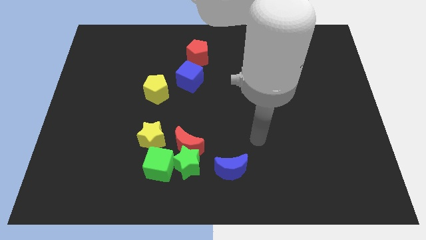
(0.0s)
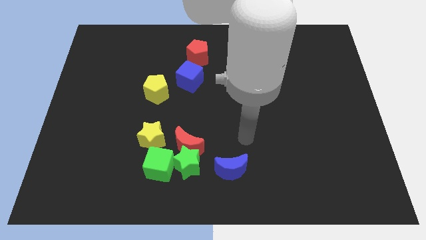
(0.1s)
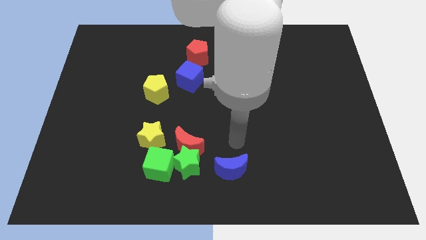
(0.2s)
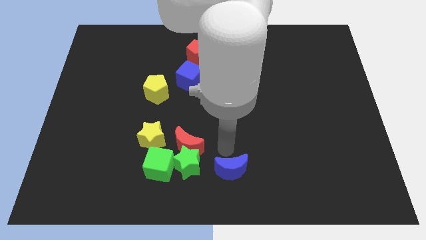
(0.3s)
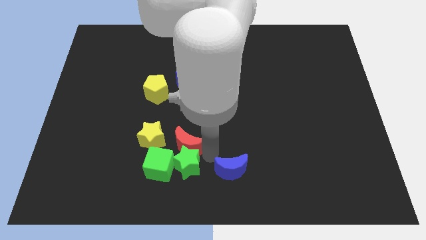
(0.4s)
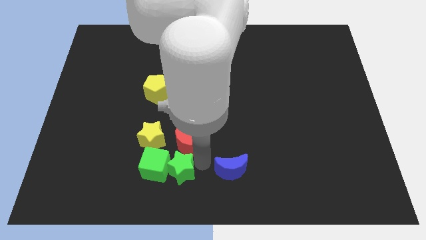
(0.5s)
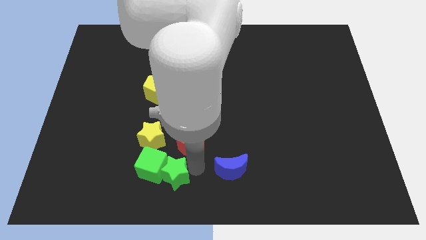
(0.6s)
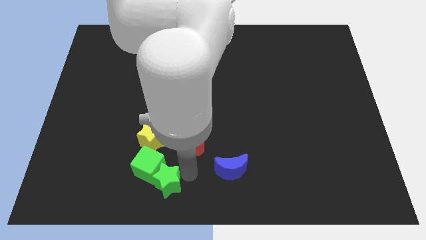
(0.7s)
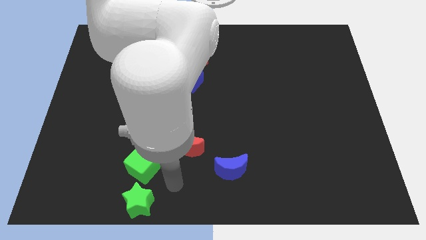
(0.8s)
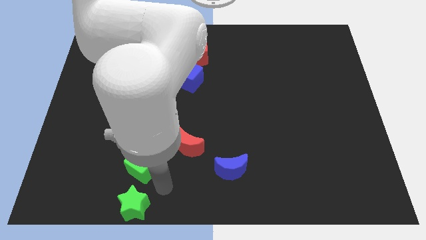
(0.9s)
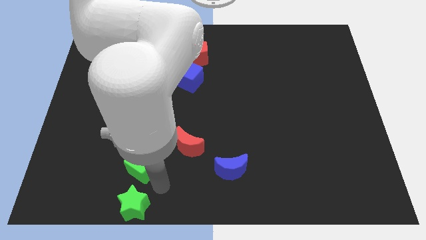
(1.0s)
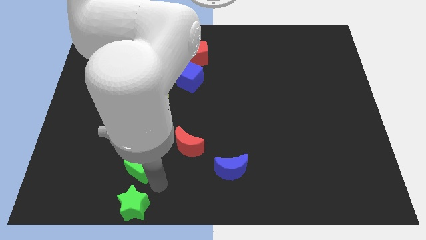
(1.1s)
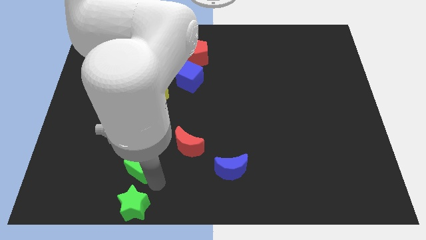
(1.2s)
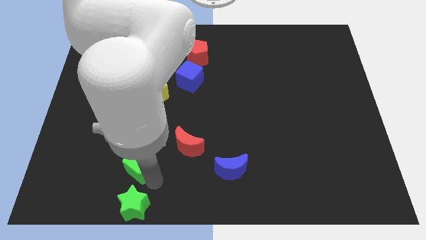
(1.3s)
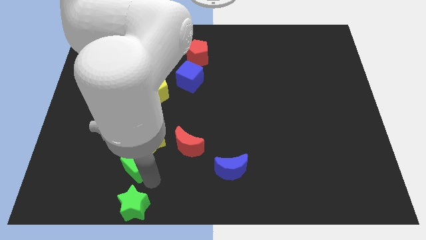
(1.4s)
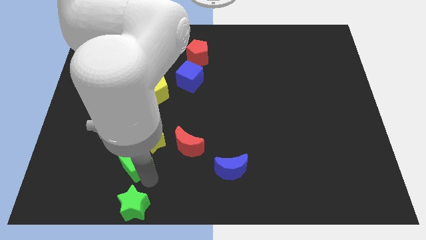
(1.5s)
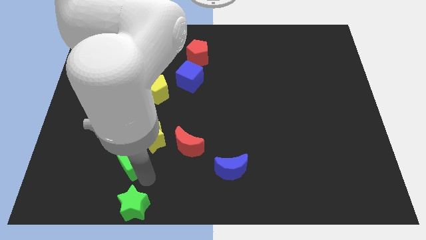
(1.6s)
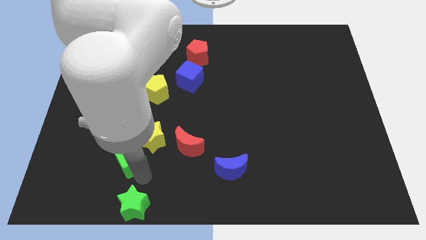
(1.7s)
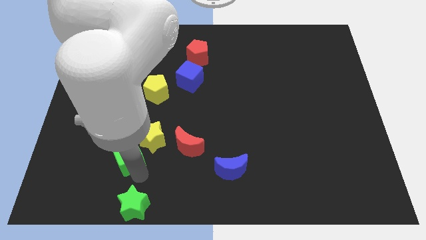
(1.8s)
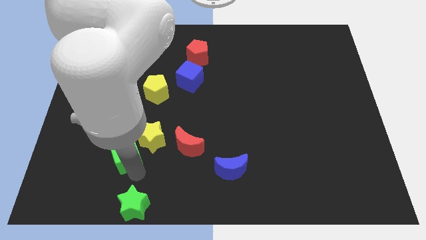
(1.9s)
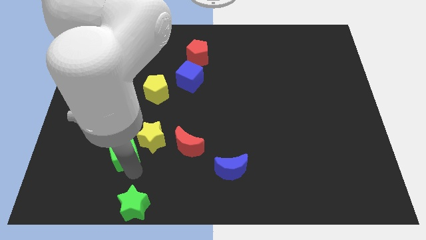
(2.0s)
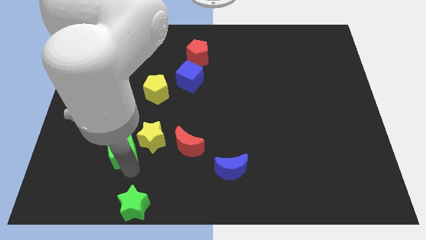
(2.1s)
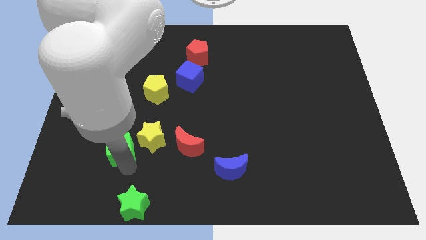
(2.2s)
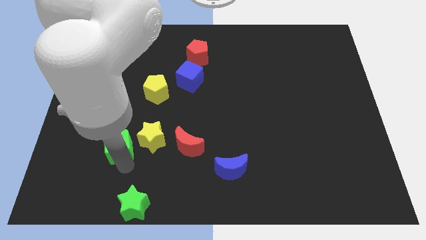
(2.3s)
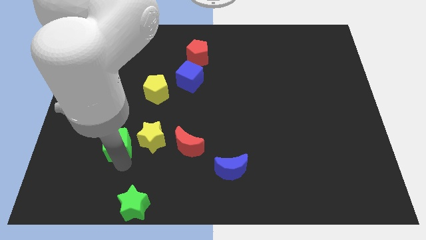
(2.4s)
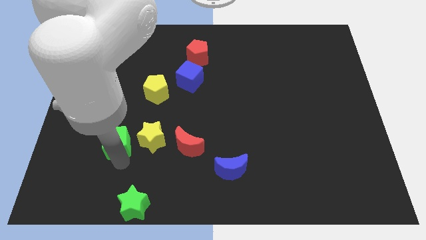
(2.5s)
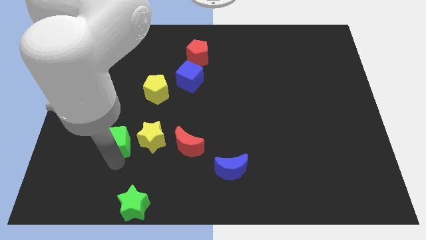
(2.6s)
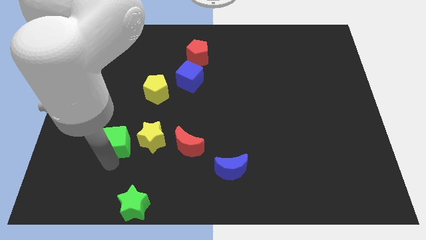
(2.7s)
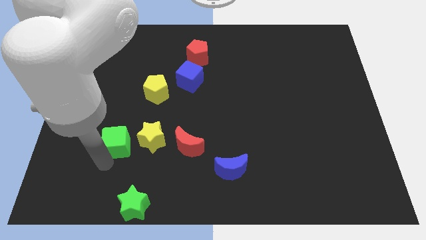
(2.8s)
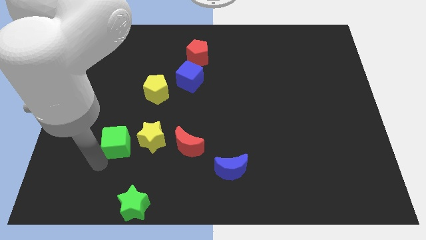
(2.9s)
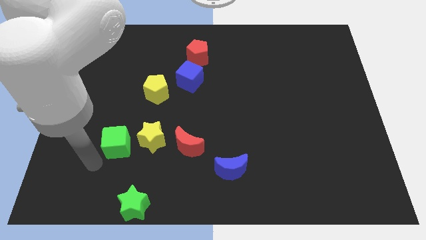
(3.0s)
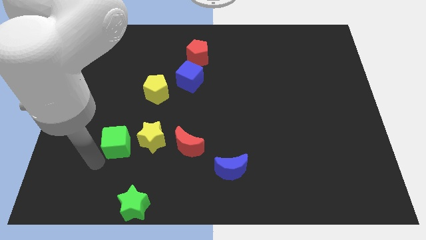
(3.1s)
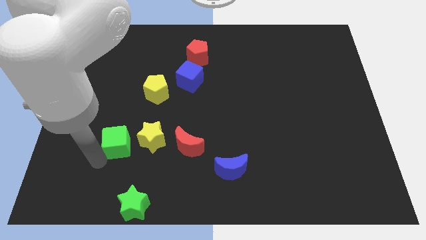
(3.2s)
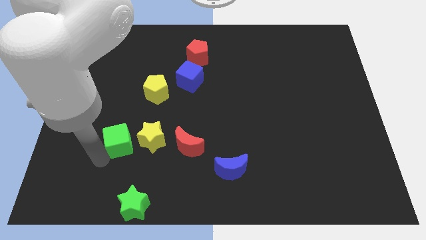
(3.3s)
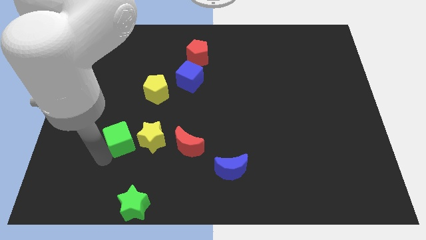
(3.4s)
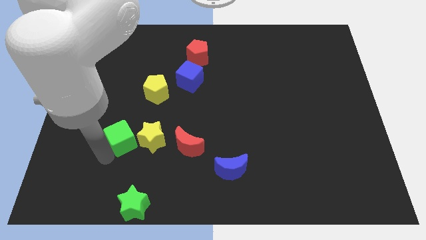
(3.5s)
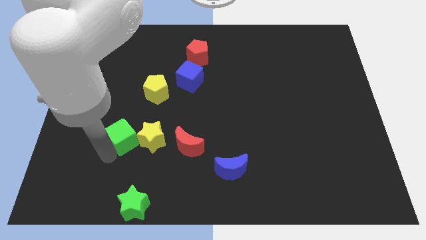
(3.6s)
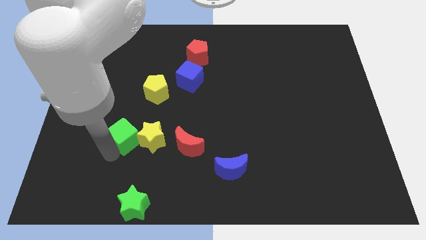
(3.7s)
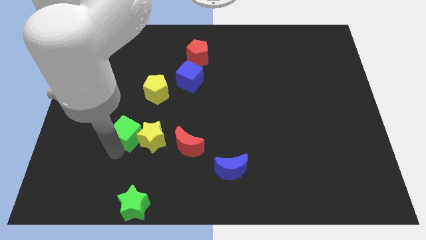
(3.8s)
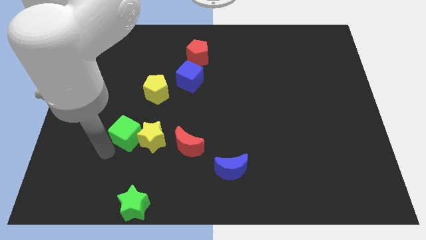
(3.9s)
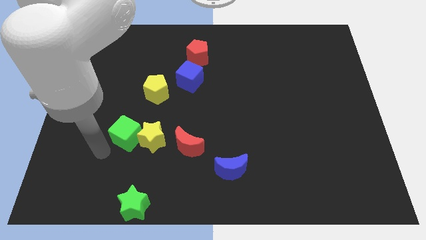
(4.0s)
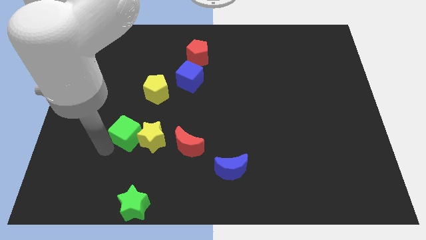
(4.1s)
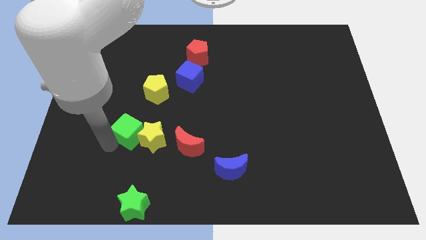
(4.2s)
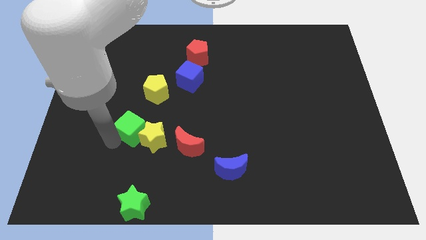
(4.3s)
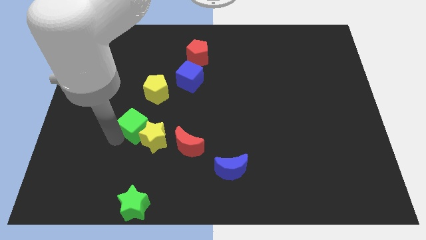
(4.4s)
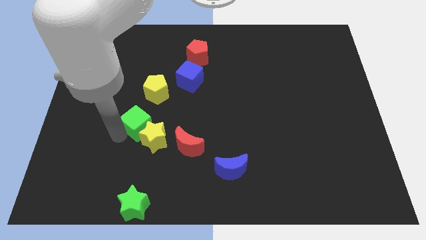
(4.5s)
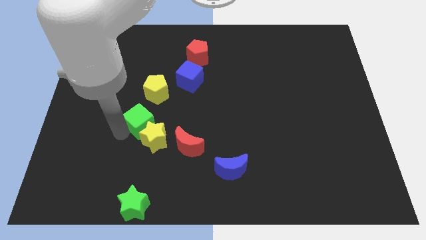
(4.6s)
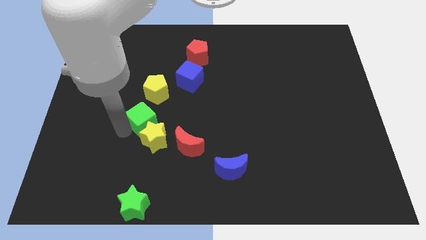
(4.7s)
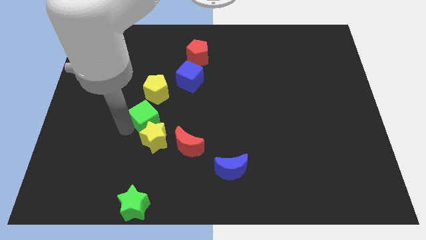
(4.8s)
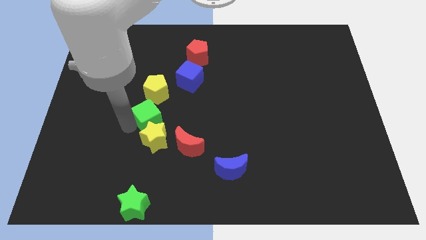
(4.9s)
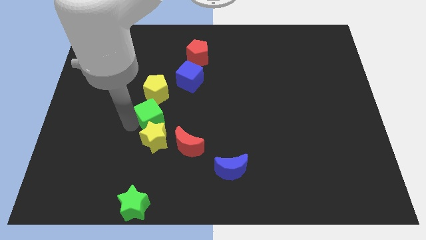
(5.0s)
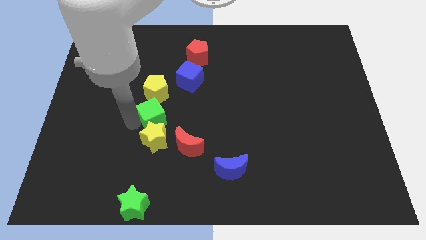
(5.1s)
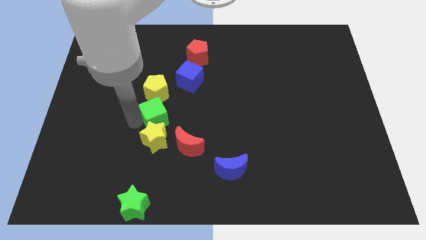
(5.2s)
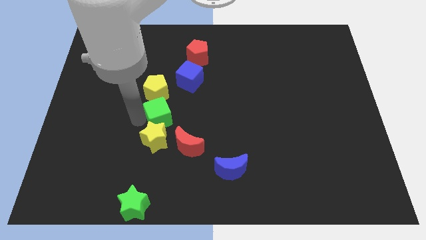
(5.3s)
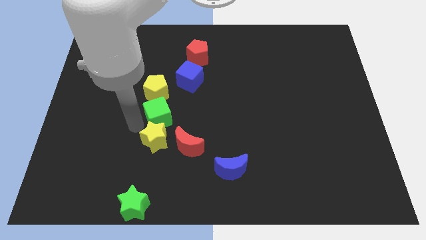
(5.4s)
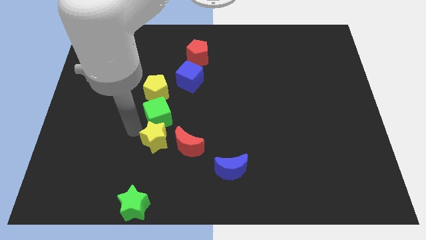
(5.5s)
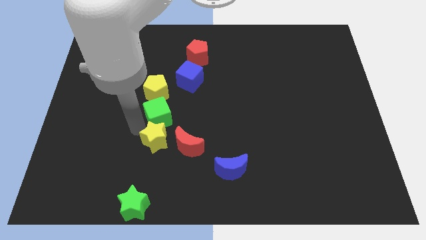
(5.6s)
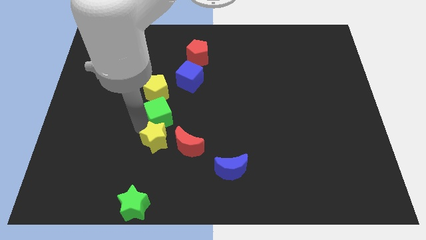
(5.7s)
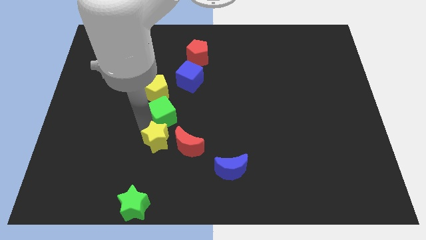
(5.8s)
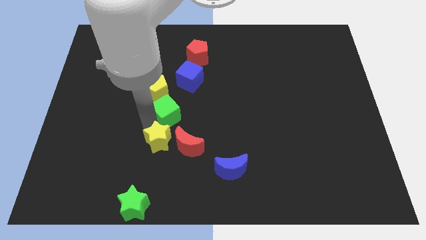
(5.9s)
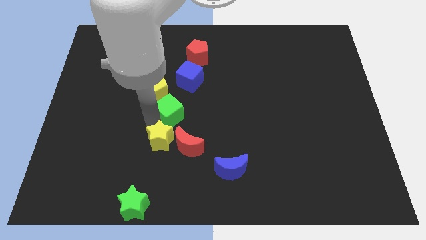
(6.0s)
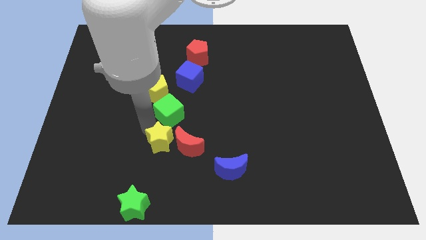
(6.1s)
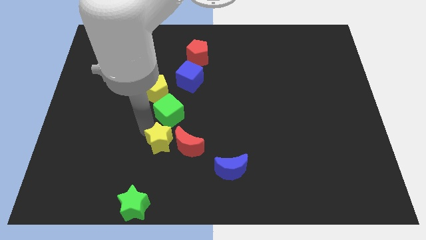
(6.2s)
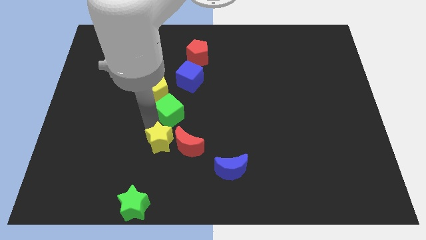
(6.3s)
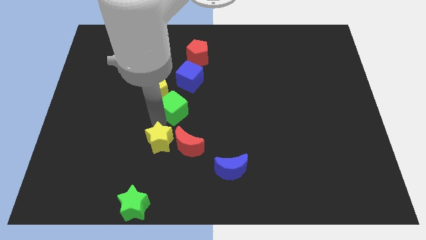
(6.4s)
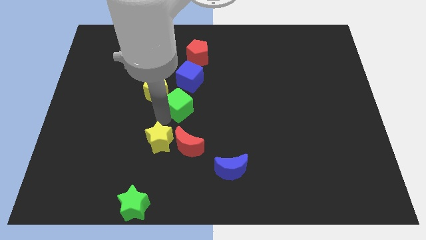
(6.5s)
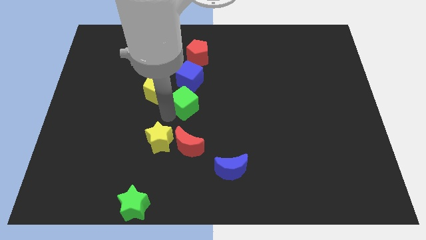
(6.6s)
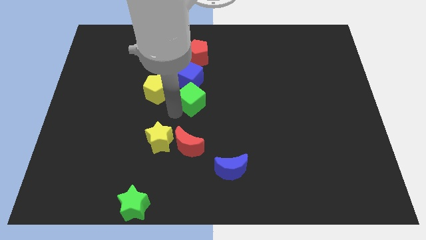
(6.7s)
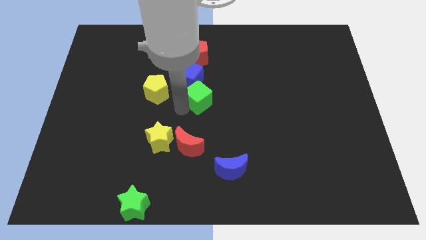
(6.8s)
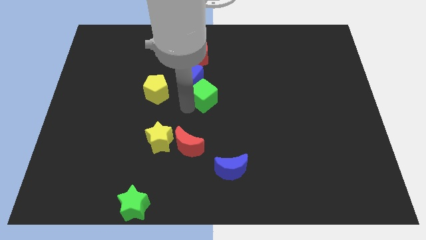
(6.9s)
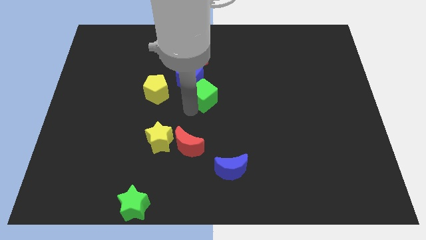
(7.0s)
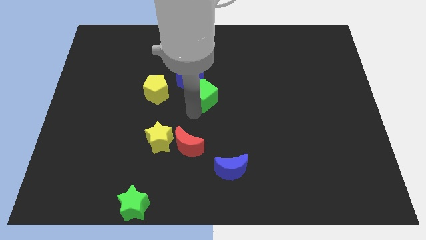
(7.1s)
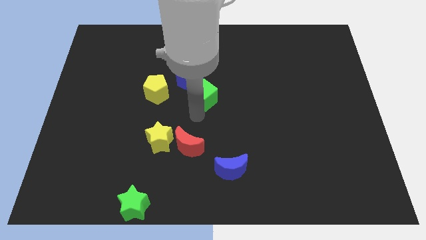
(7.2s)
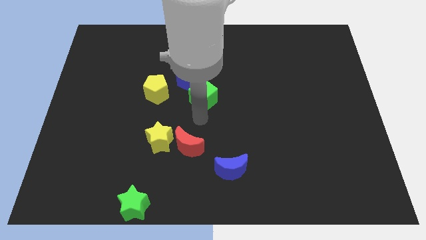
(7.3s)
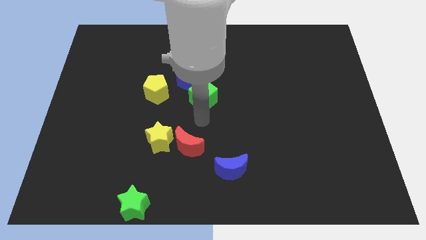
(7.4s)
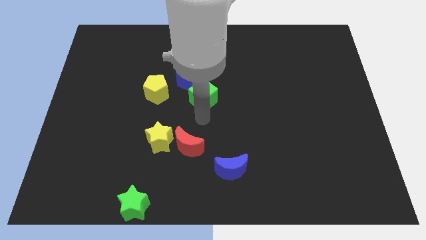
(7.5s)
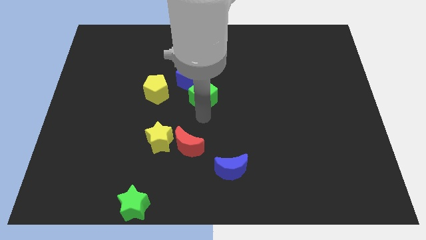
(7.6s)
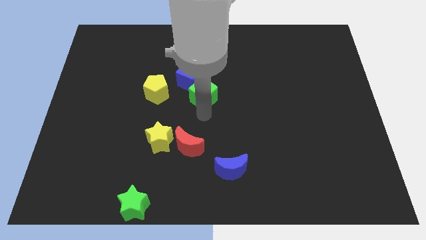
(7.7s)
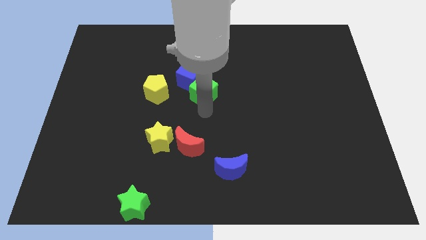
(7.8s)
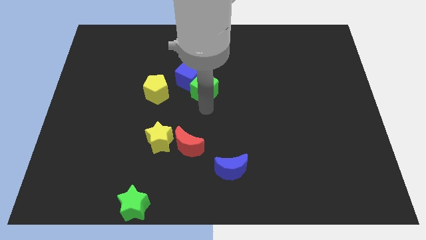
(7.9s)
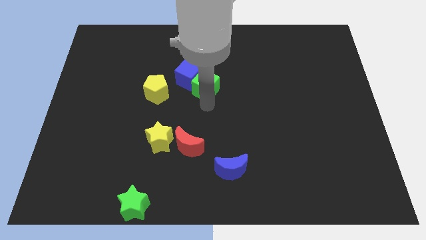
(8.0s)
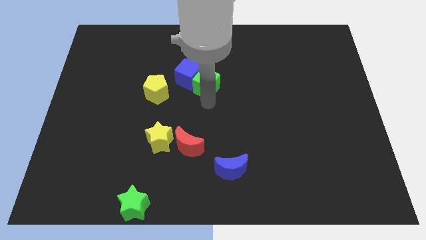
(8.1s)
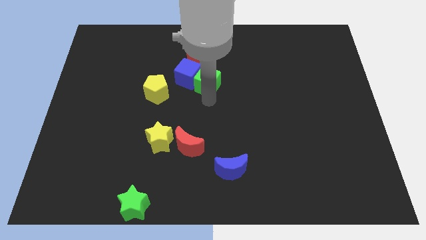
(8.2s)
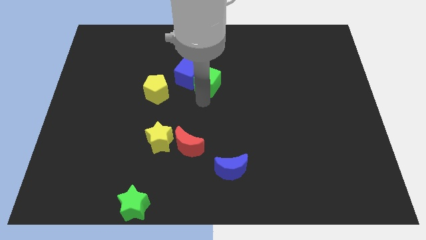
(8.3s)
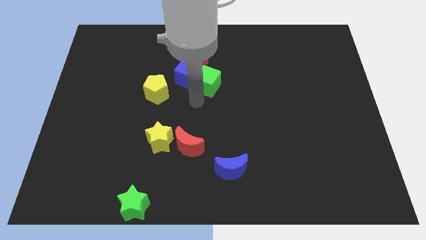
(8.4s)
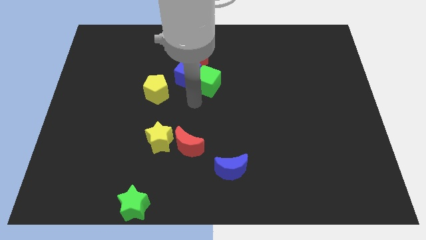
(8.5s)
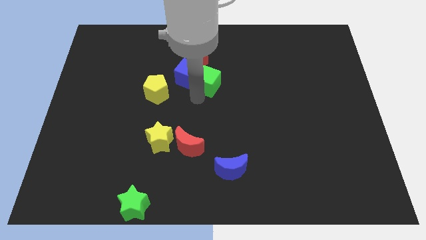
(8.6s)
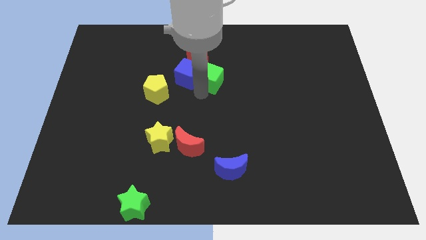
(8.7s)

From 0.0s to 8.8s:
slide the green cube to the bottom right side of the red pentagon
